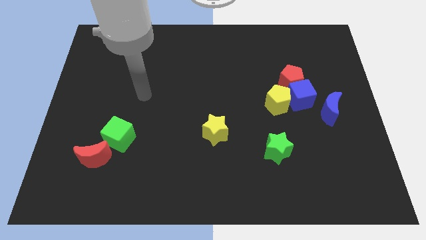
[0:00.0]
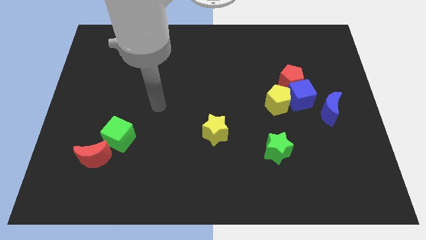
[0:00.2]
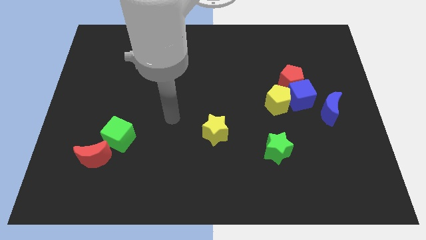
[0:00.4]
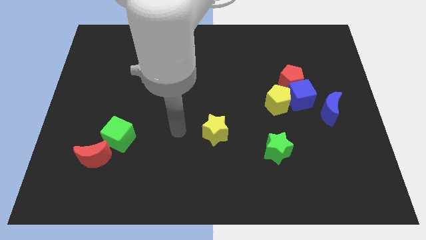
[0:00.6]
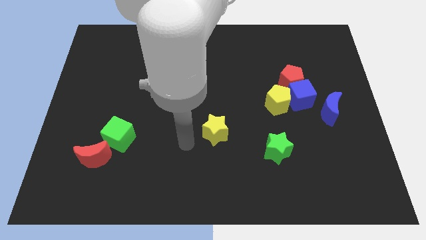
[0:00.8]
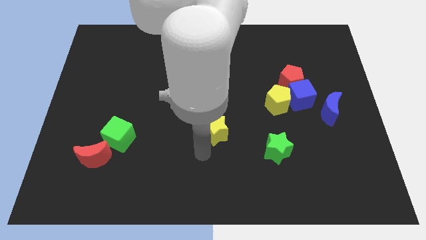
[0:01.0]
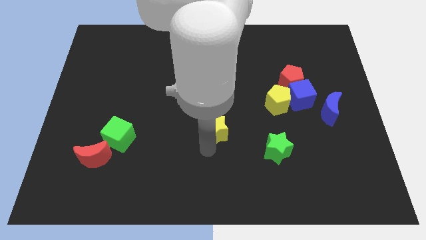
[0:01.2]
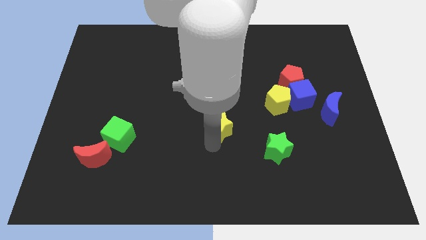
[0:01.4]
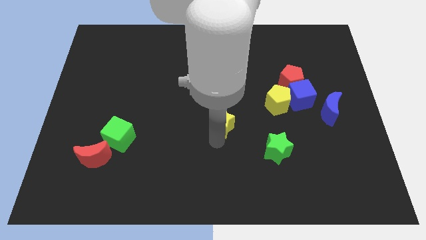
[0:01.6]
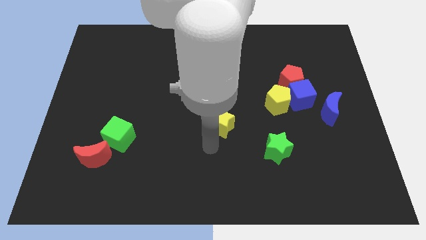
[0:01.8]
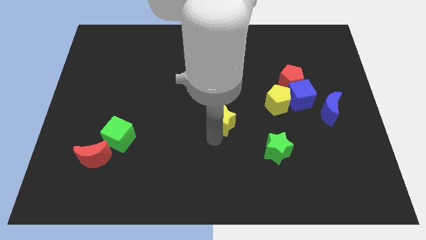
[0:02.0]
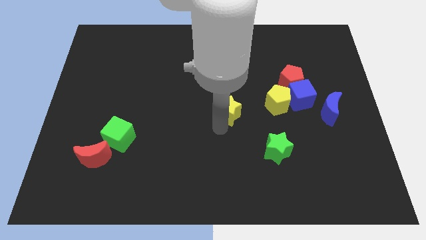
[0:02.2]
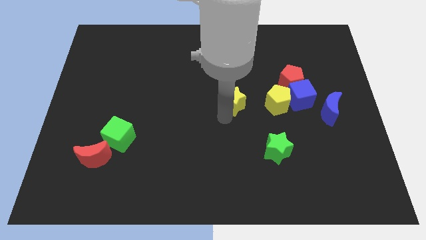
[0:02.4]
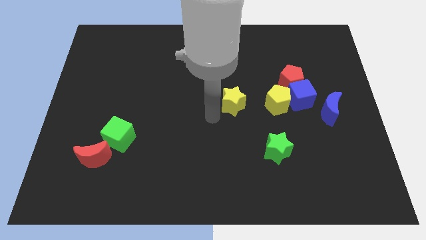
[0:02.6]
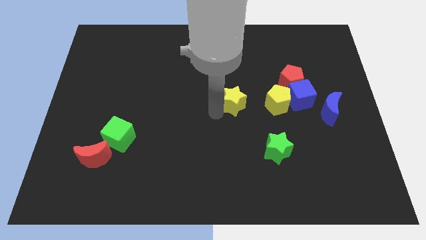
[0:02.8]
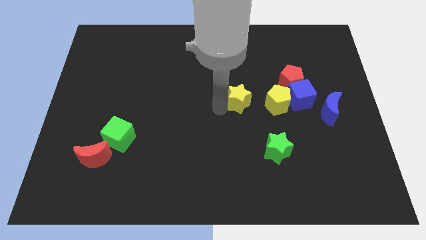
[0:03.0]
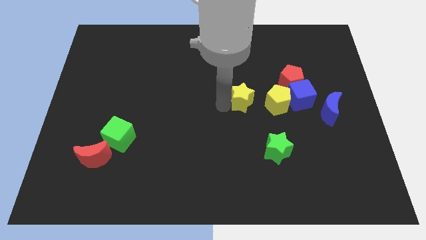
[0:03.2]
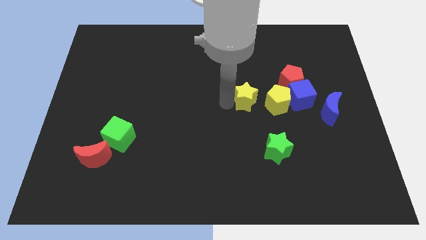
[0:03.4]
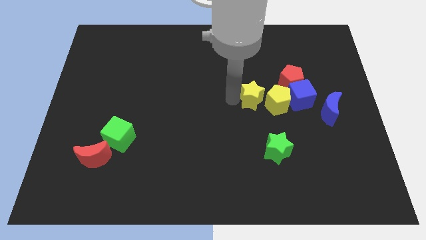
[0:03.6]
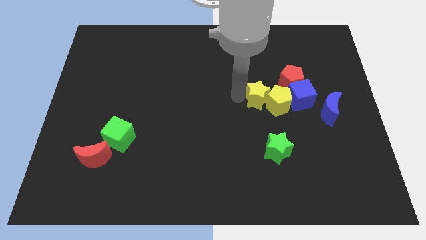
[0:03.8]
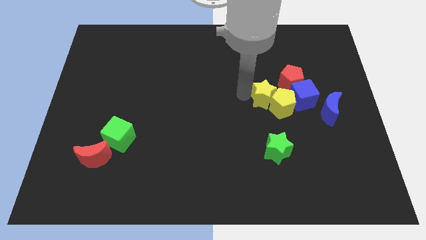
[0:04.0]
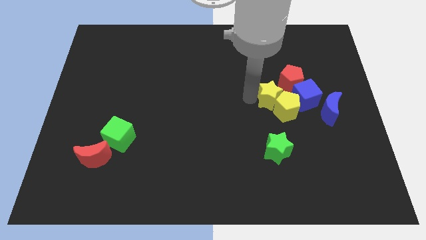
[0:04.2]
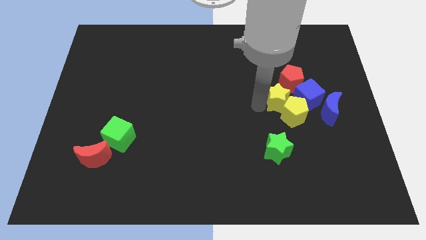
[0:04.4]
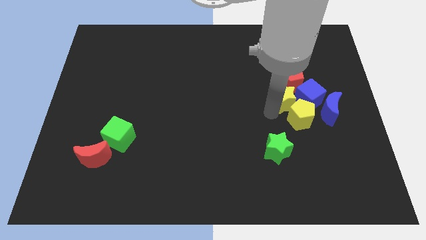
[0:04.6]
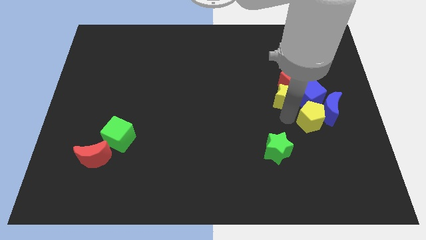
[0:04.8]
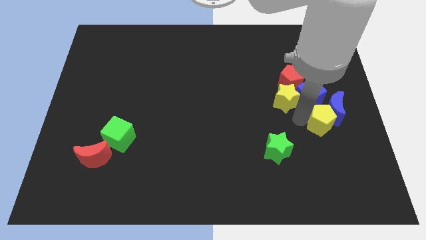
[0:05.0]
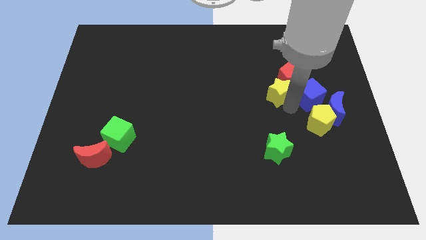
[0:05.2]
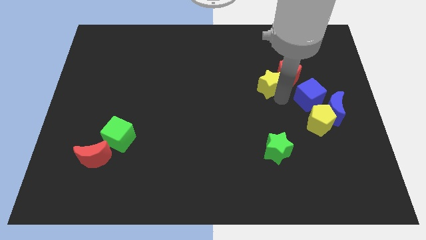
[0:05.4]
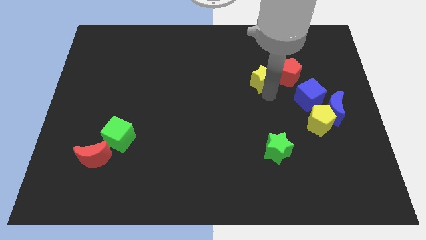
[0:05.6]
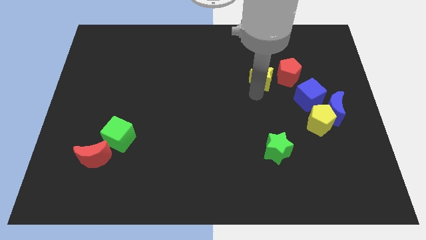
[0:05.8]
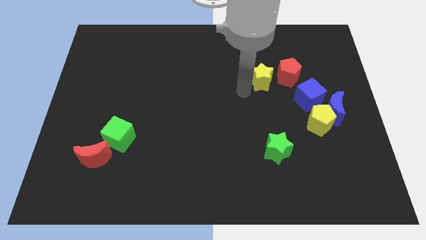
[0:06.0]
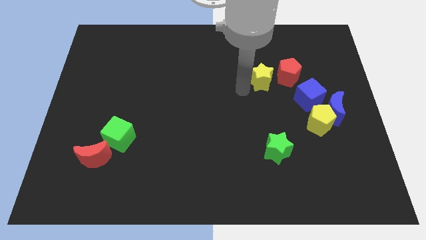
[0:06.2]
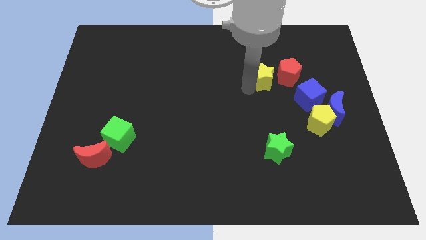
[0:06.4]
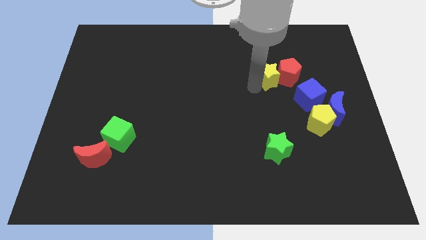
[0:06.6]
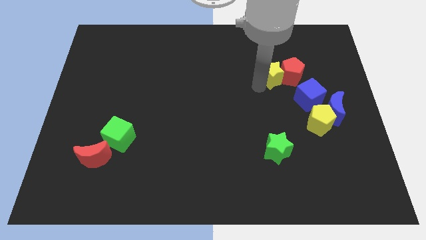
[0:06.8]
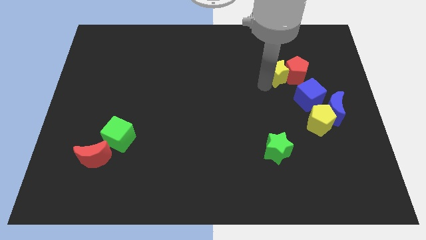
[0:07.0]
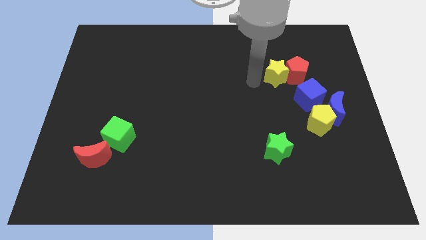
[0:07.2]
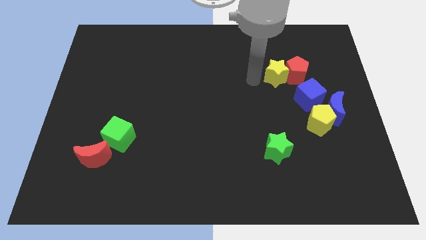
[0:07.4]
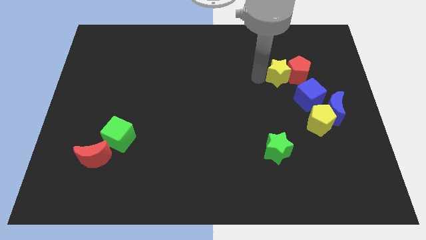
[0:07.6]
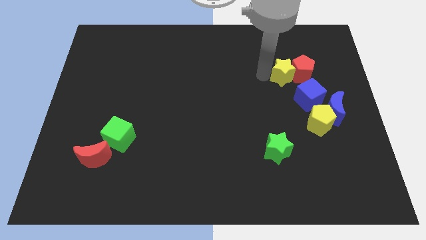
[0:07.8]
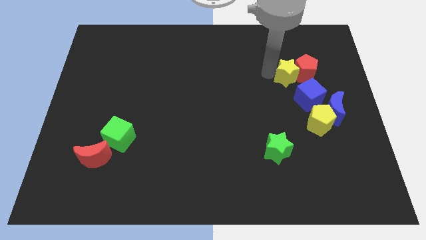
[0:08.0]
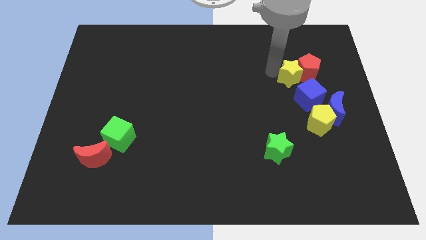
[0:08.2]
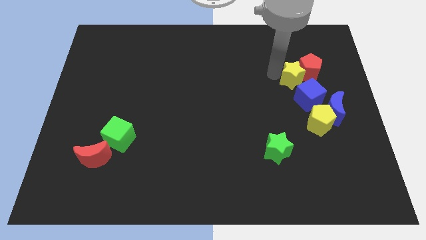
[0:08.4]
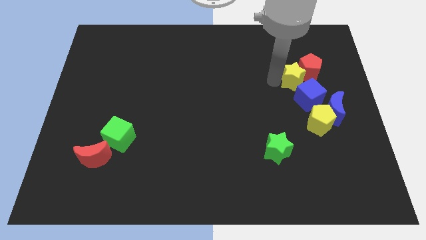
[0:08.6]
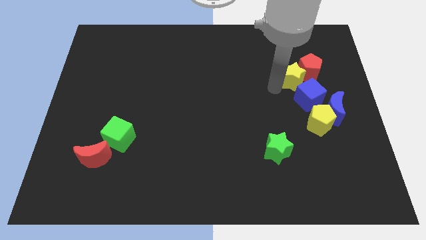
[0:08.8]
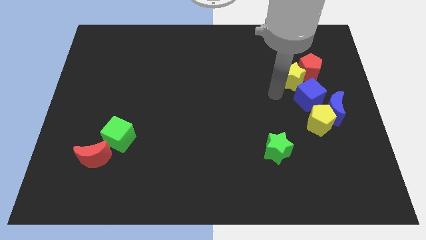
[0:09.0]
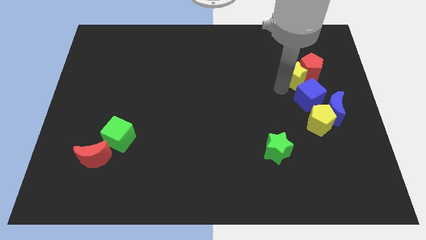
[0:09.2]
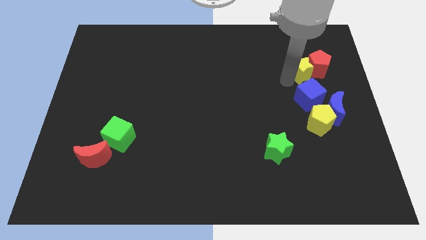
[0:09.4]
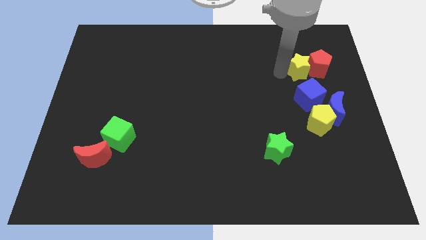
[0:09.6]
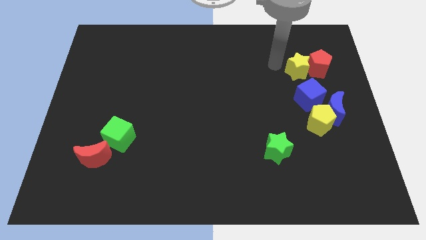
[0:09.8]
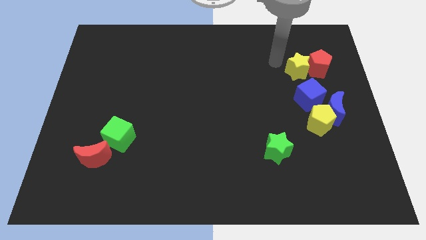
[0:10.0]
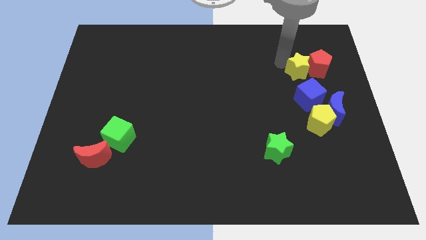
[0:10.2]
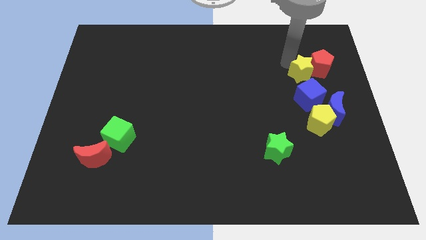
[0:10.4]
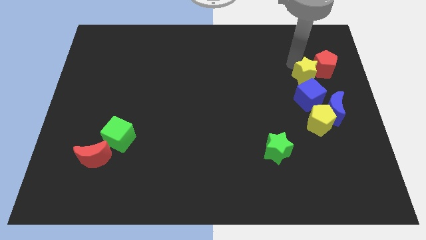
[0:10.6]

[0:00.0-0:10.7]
move the yellow star above the blue moon
